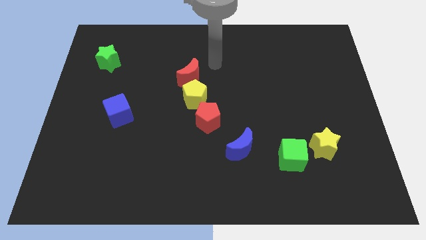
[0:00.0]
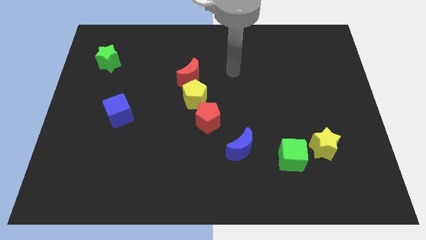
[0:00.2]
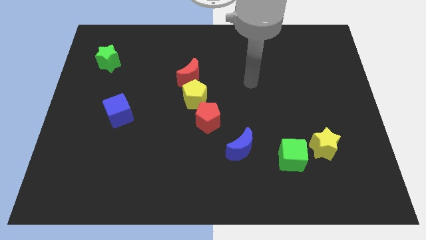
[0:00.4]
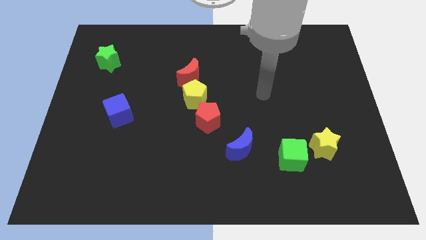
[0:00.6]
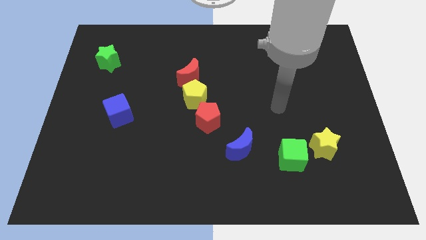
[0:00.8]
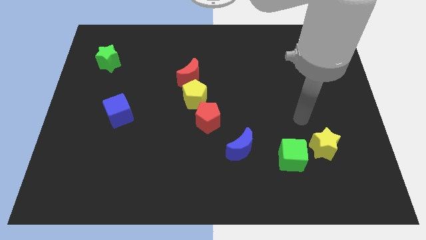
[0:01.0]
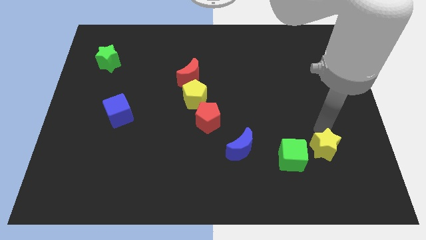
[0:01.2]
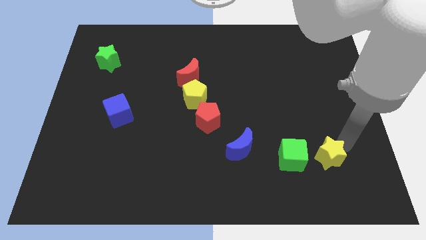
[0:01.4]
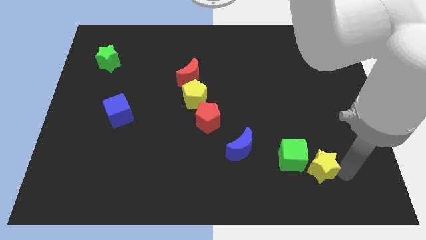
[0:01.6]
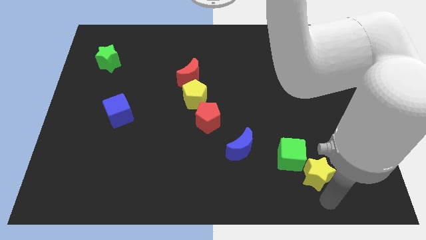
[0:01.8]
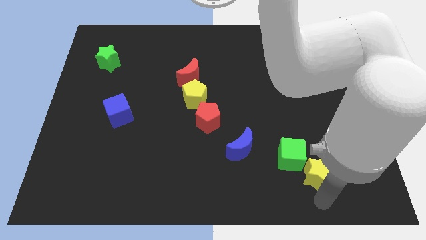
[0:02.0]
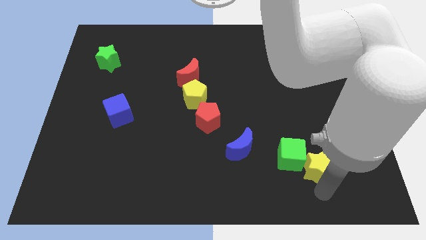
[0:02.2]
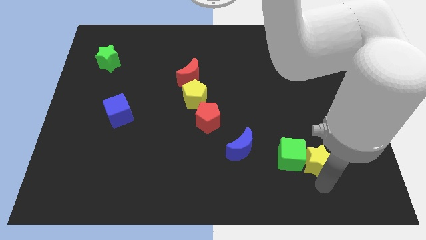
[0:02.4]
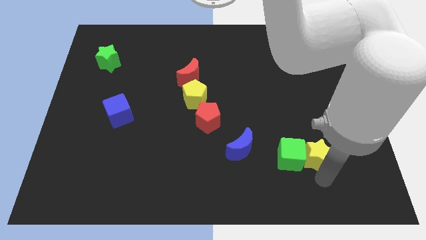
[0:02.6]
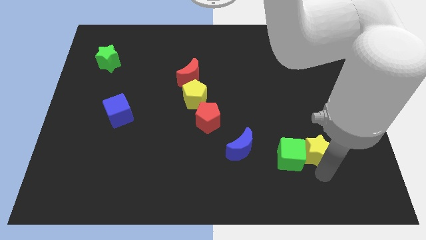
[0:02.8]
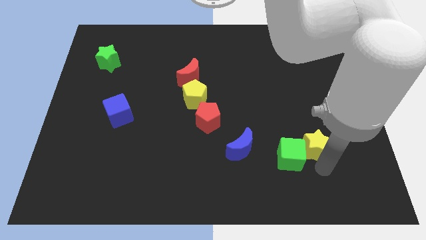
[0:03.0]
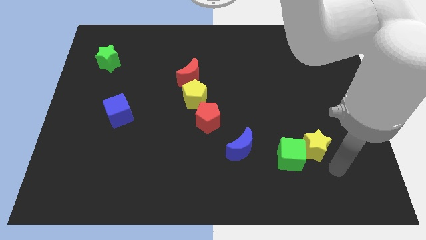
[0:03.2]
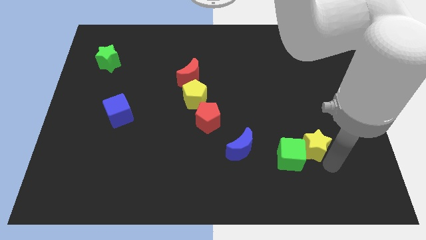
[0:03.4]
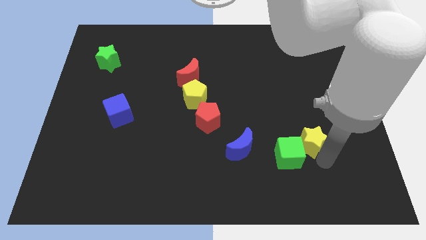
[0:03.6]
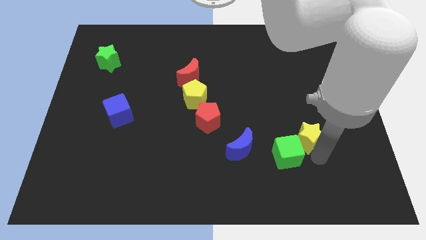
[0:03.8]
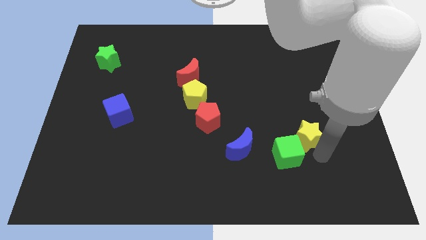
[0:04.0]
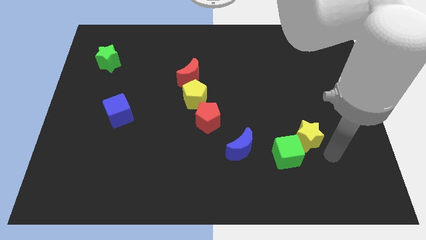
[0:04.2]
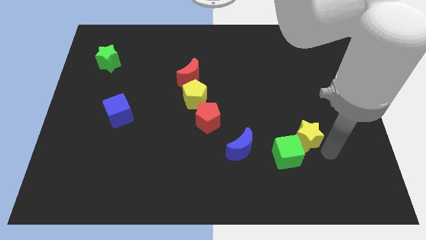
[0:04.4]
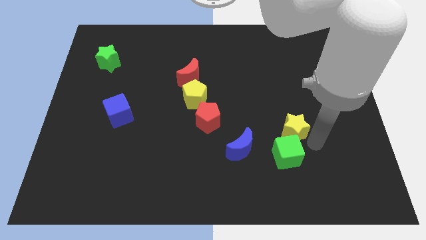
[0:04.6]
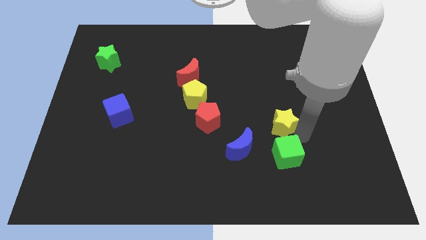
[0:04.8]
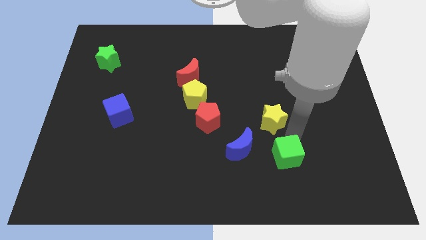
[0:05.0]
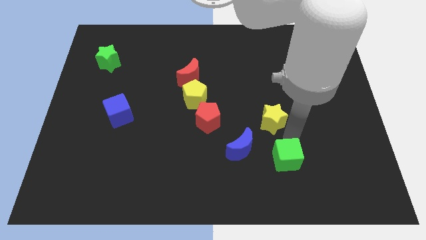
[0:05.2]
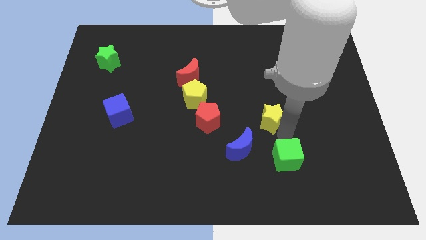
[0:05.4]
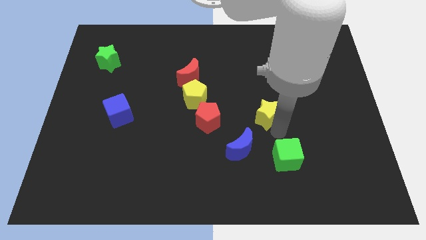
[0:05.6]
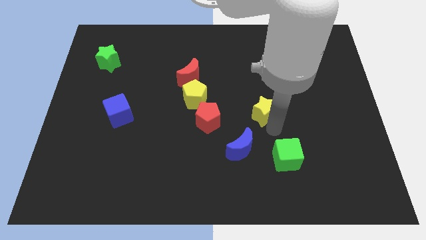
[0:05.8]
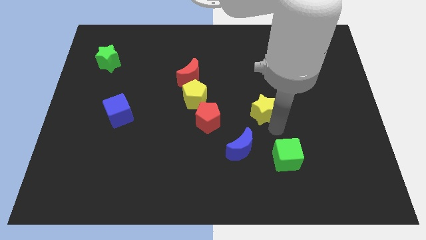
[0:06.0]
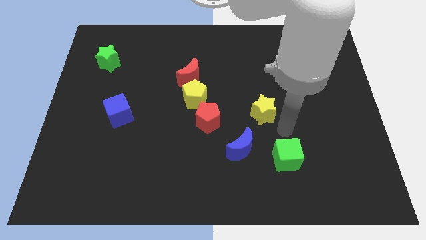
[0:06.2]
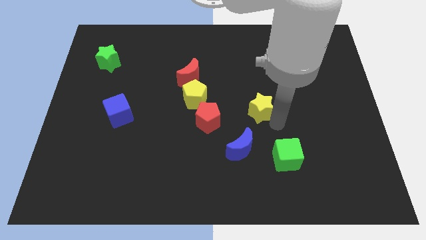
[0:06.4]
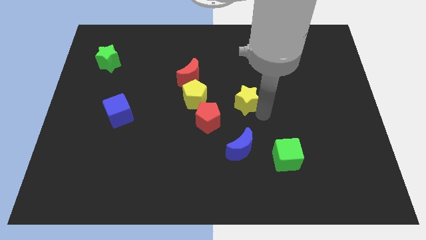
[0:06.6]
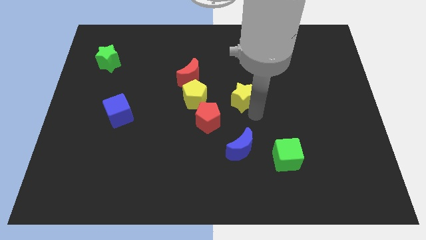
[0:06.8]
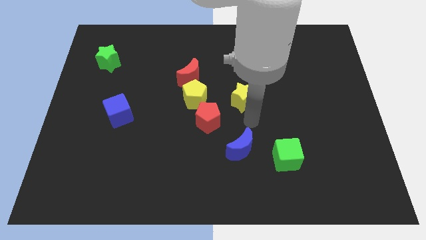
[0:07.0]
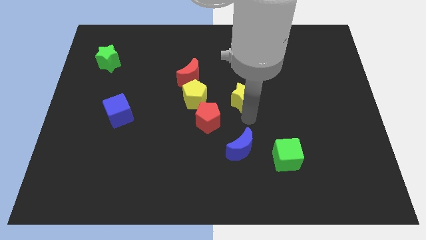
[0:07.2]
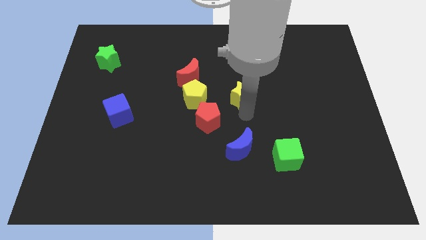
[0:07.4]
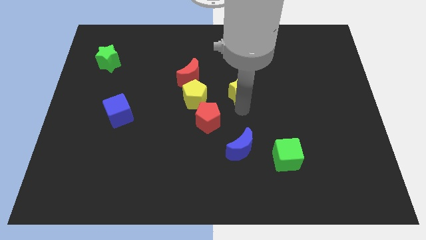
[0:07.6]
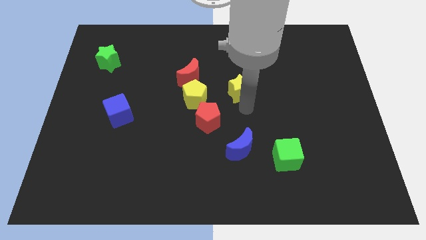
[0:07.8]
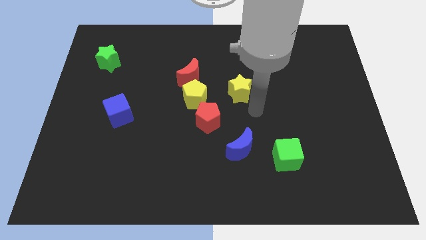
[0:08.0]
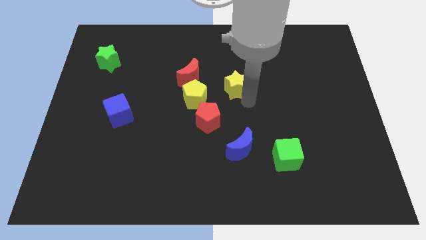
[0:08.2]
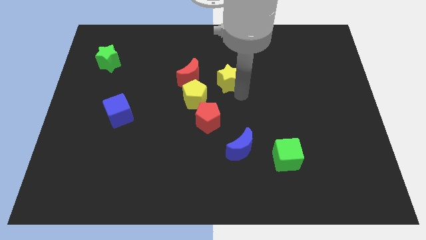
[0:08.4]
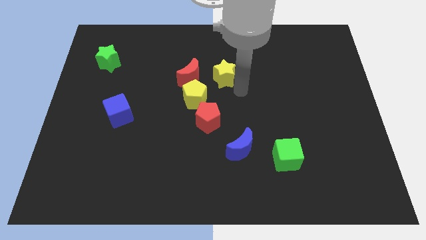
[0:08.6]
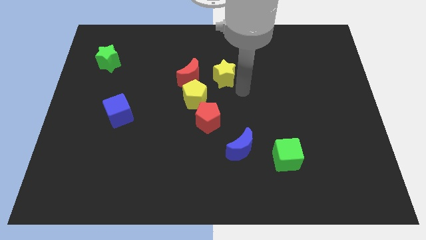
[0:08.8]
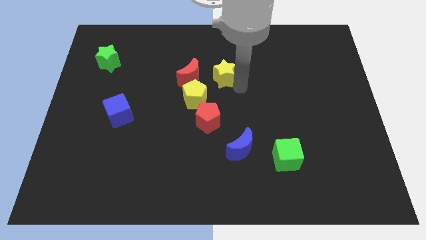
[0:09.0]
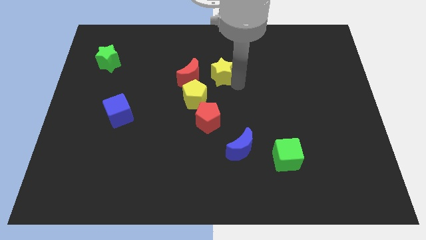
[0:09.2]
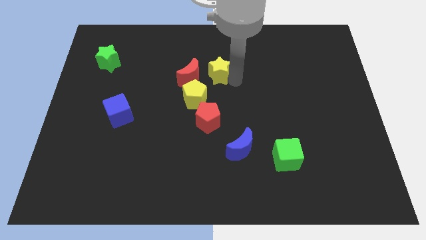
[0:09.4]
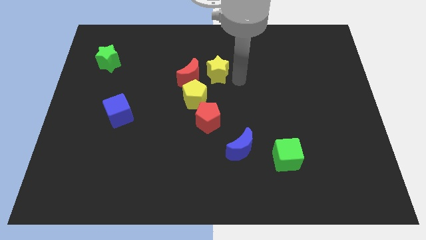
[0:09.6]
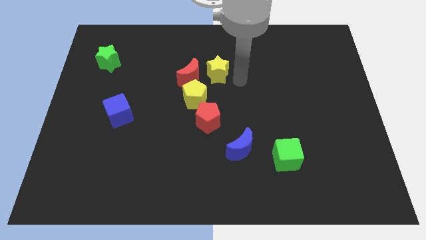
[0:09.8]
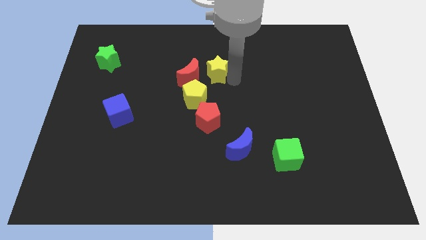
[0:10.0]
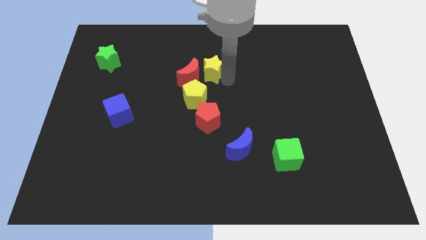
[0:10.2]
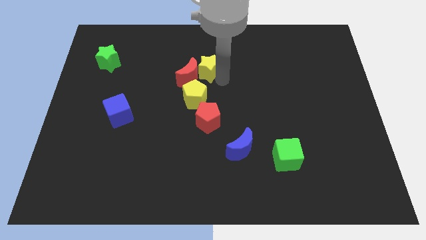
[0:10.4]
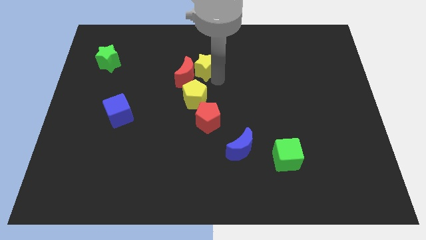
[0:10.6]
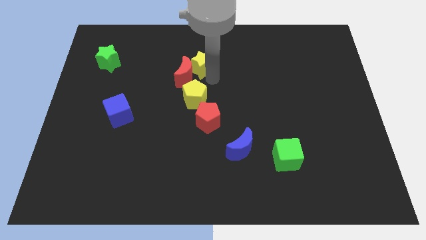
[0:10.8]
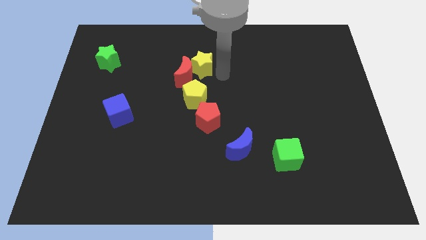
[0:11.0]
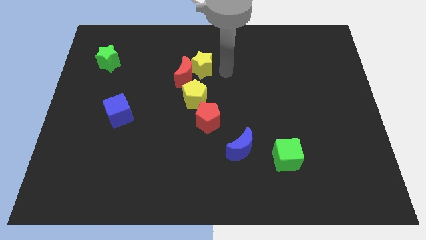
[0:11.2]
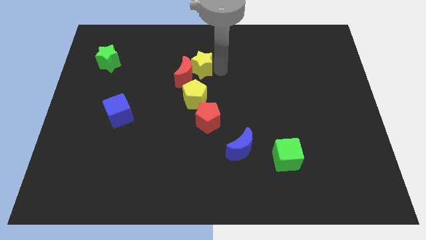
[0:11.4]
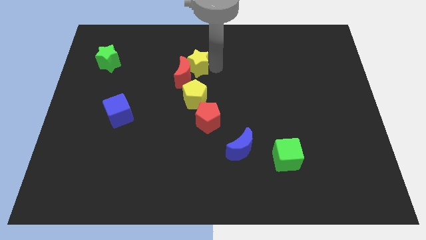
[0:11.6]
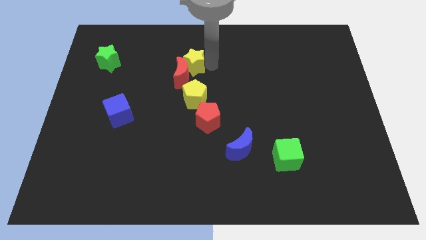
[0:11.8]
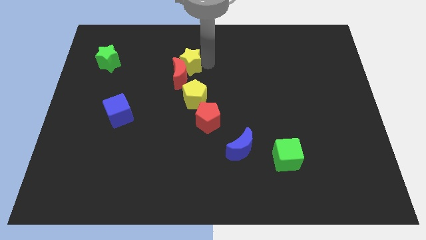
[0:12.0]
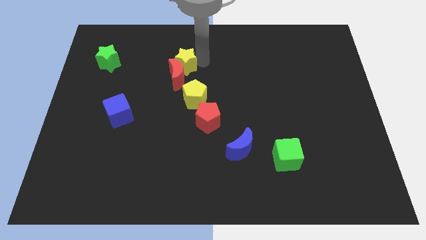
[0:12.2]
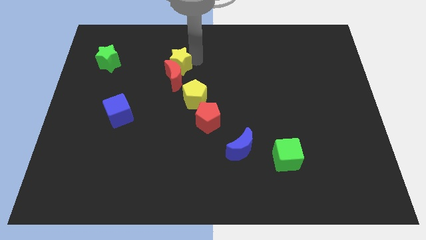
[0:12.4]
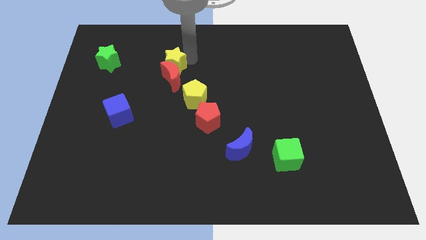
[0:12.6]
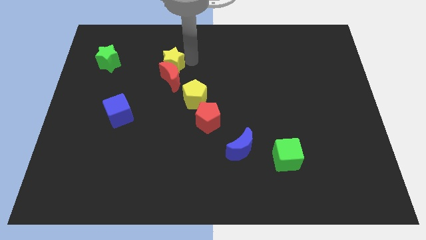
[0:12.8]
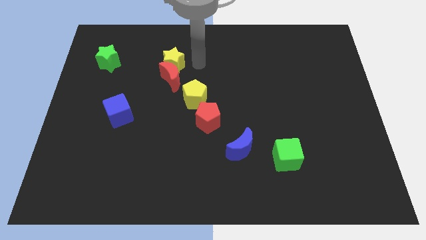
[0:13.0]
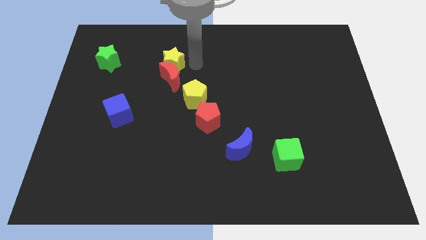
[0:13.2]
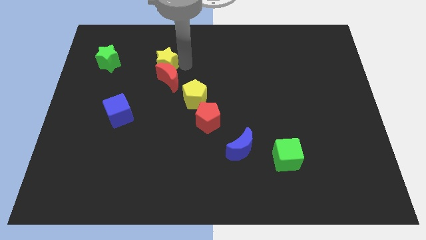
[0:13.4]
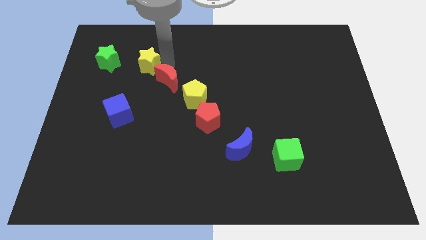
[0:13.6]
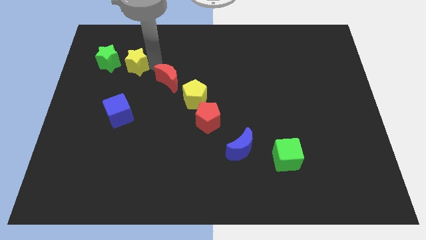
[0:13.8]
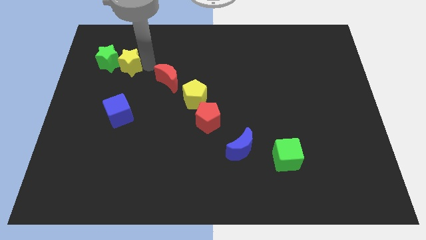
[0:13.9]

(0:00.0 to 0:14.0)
move the yellow star towards the green star
